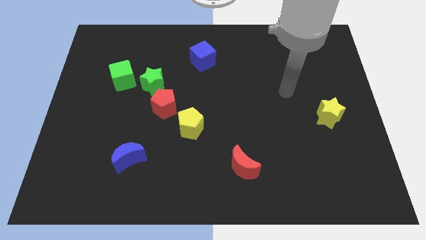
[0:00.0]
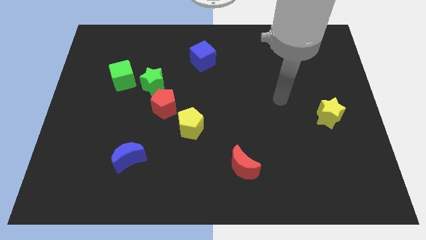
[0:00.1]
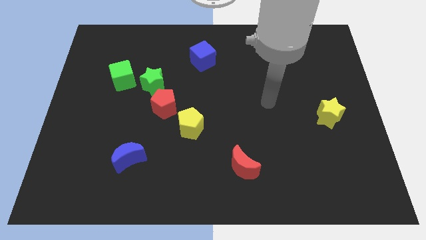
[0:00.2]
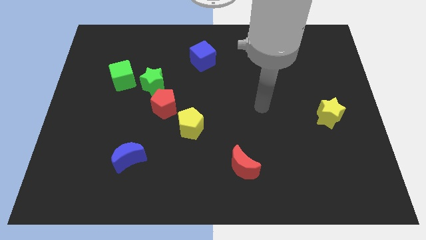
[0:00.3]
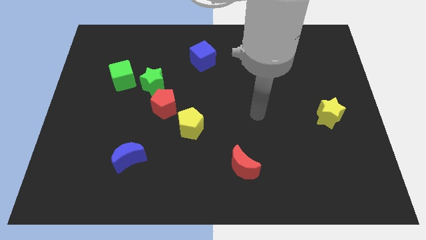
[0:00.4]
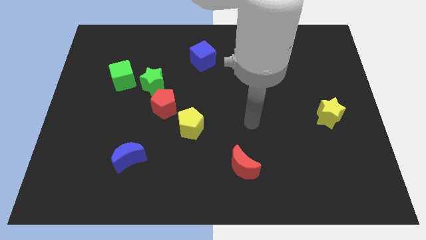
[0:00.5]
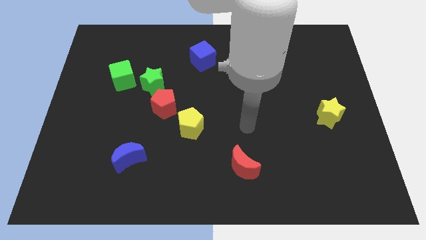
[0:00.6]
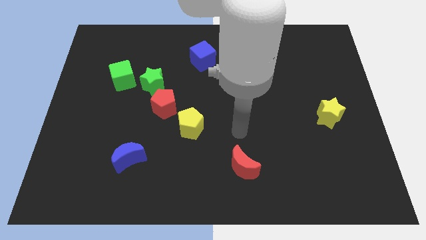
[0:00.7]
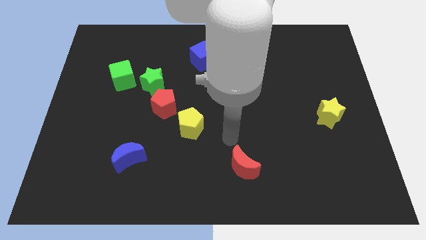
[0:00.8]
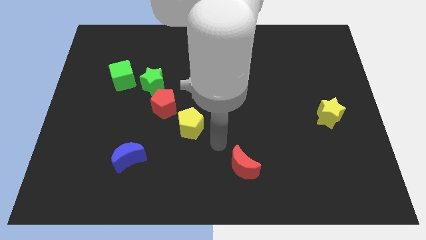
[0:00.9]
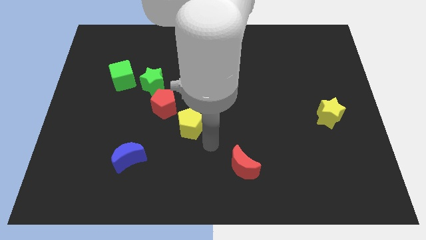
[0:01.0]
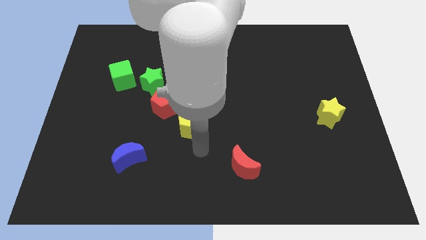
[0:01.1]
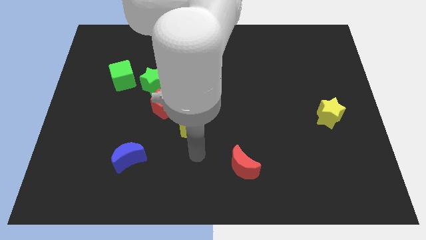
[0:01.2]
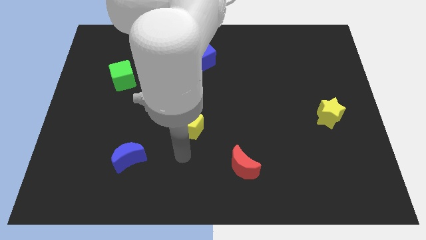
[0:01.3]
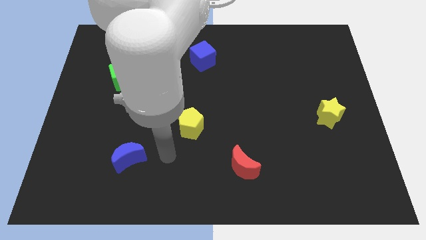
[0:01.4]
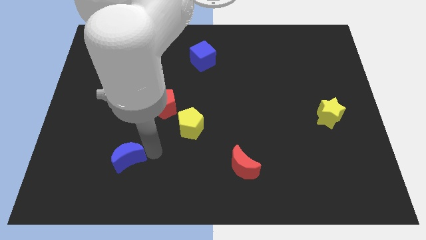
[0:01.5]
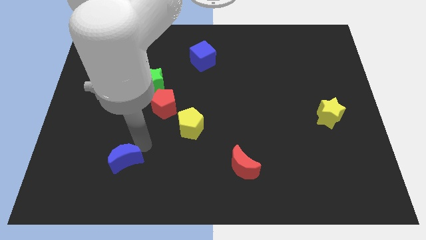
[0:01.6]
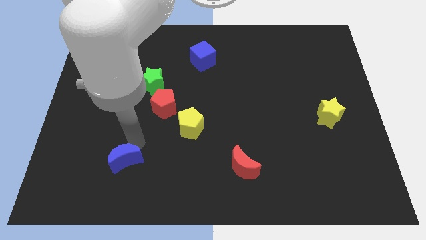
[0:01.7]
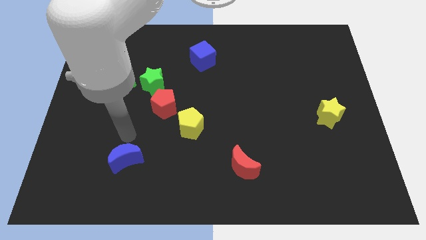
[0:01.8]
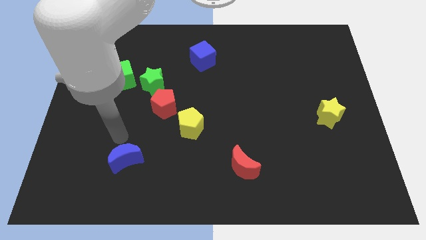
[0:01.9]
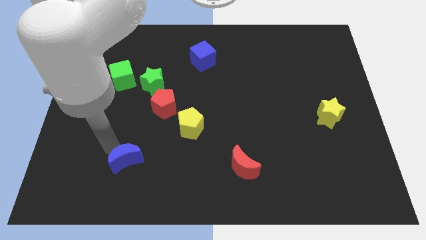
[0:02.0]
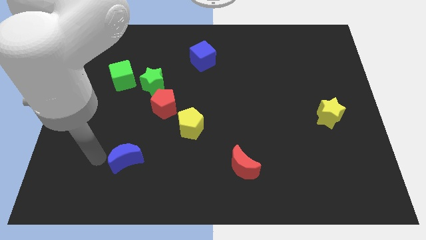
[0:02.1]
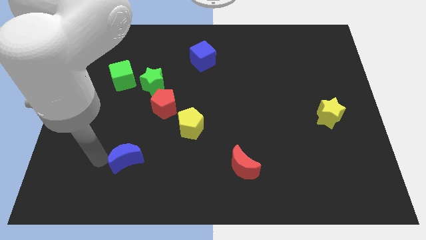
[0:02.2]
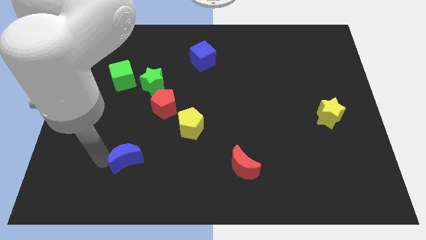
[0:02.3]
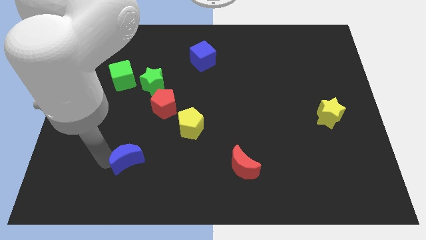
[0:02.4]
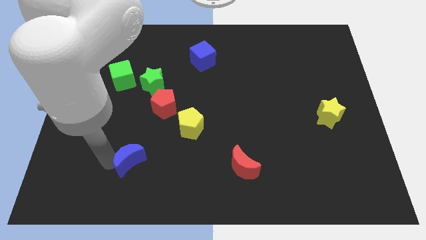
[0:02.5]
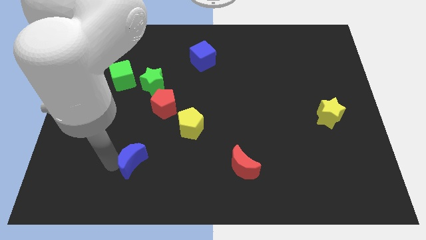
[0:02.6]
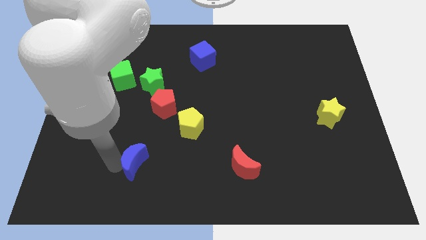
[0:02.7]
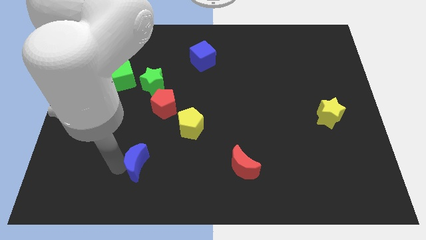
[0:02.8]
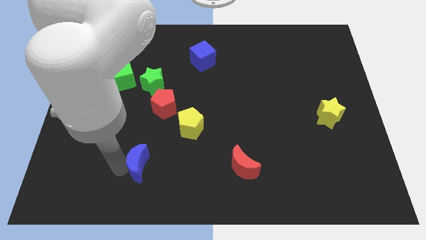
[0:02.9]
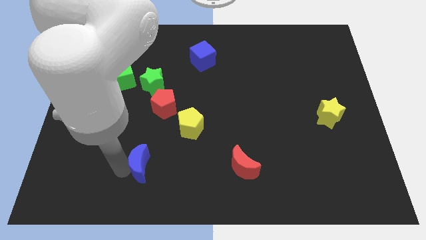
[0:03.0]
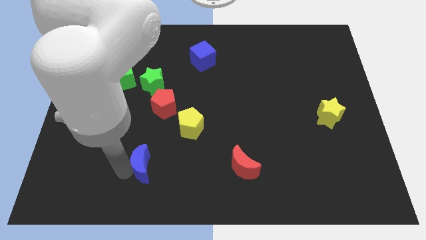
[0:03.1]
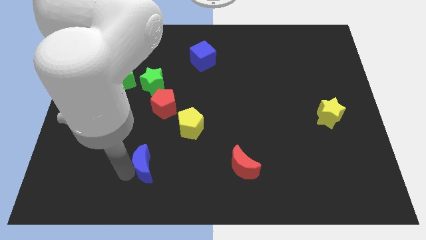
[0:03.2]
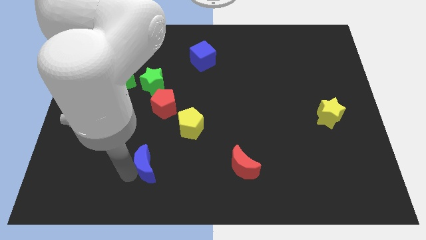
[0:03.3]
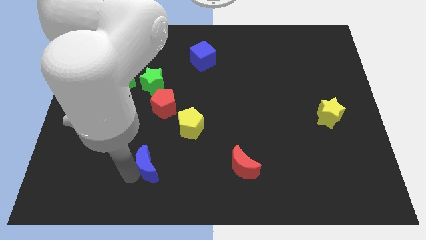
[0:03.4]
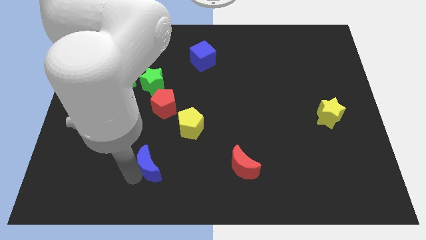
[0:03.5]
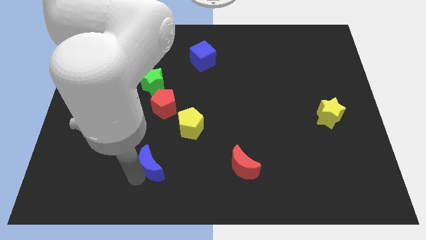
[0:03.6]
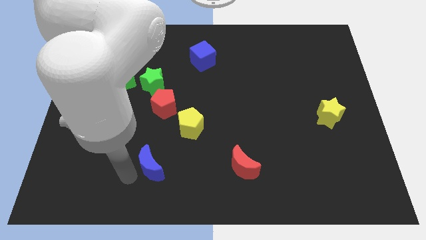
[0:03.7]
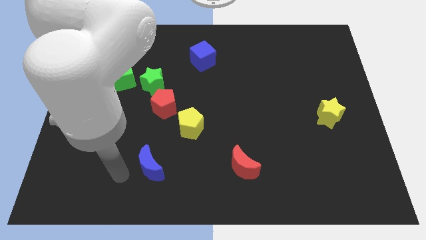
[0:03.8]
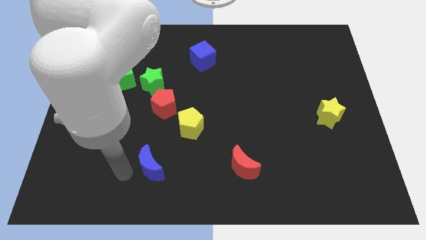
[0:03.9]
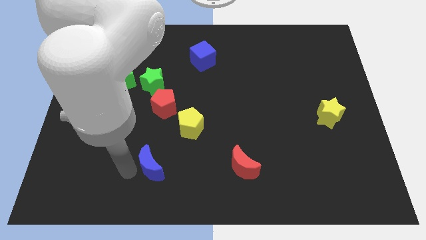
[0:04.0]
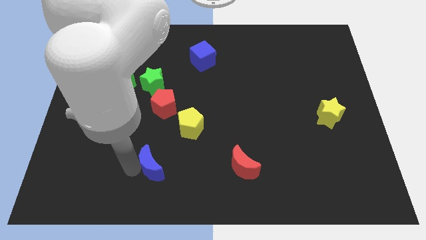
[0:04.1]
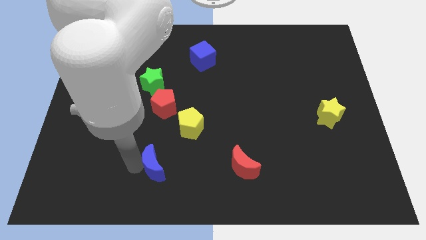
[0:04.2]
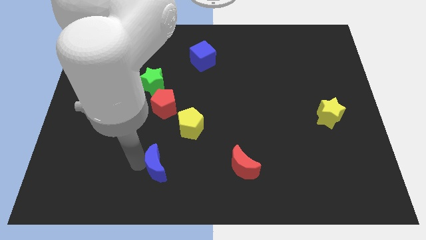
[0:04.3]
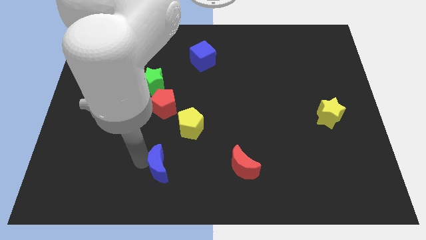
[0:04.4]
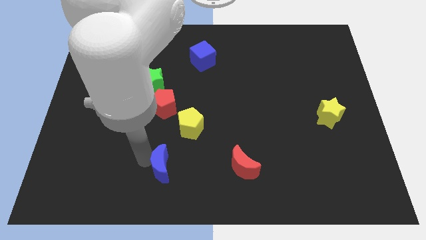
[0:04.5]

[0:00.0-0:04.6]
move the blue moon to the right somewhat

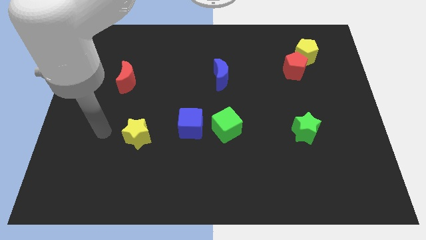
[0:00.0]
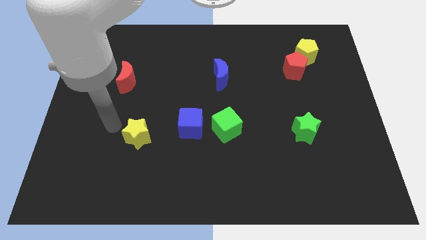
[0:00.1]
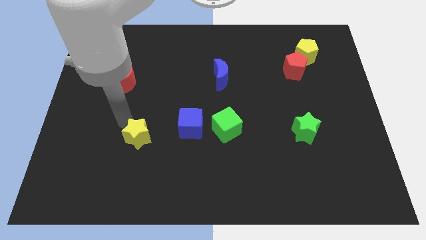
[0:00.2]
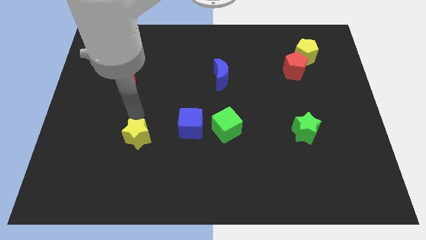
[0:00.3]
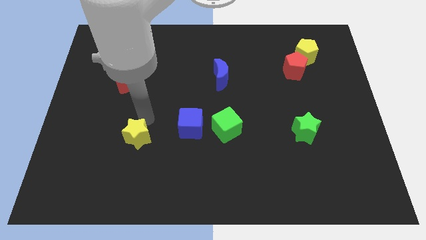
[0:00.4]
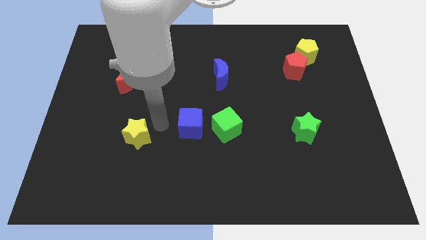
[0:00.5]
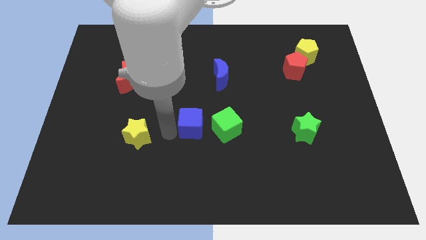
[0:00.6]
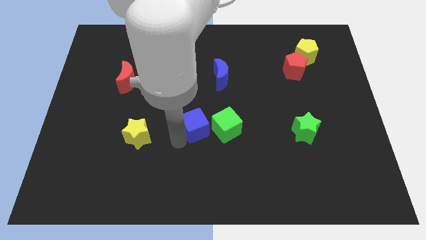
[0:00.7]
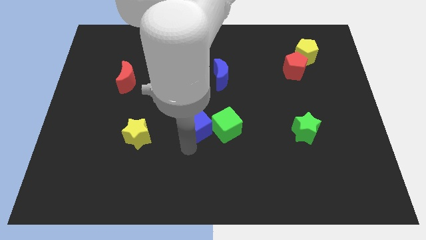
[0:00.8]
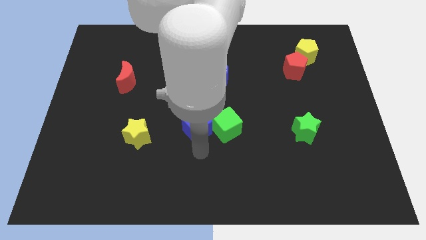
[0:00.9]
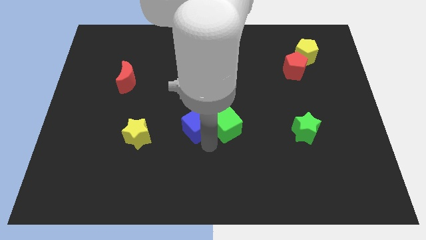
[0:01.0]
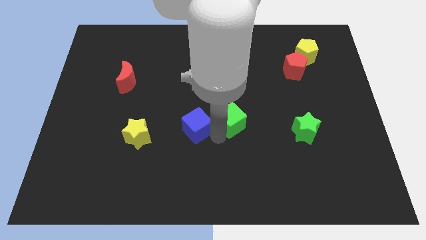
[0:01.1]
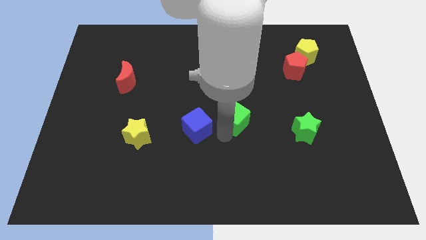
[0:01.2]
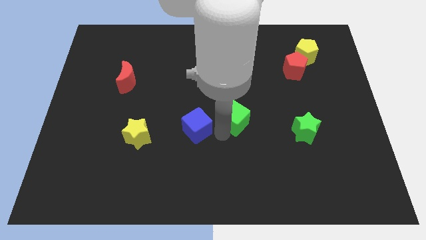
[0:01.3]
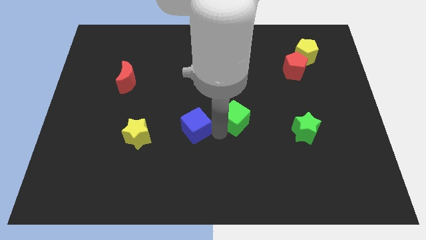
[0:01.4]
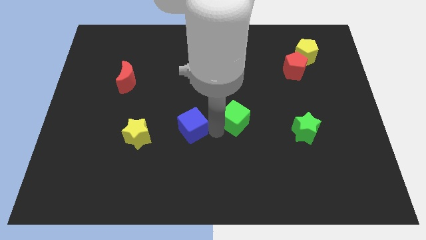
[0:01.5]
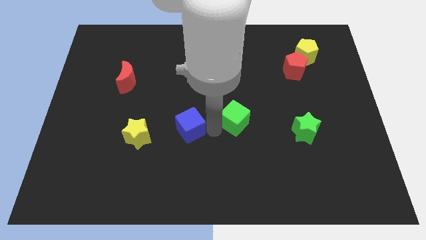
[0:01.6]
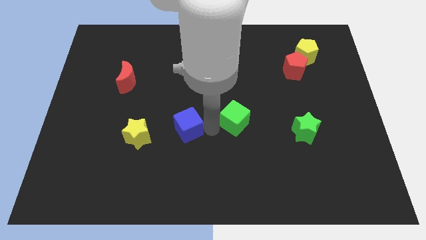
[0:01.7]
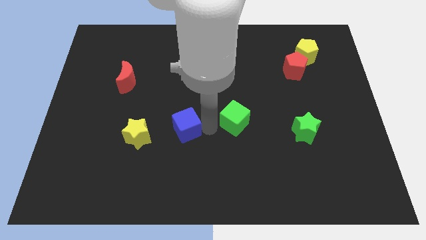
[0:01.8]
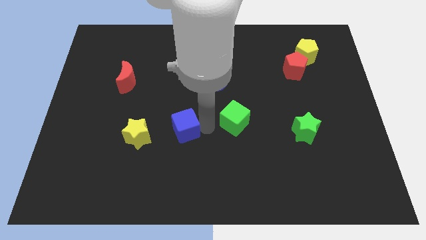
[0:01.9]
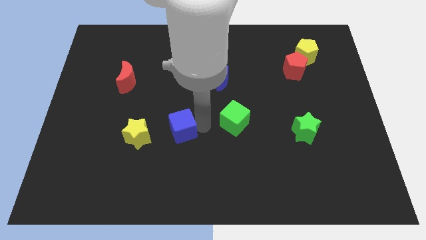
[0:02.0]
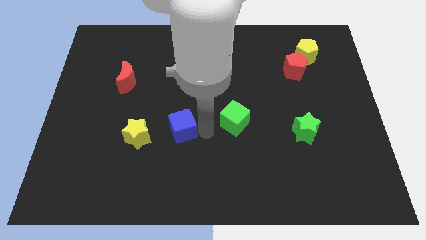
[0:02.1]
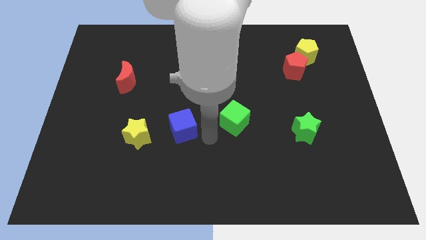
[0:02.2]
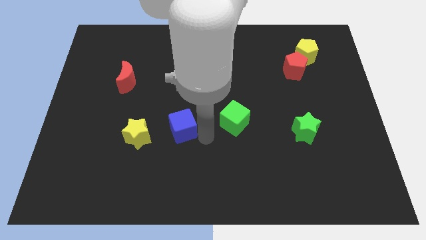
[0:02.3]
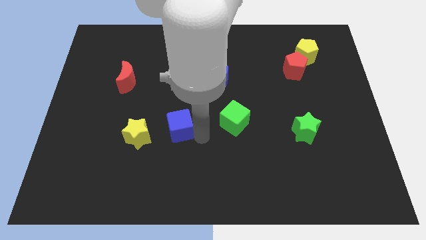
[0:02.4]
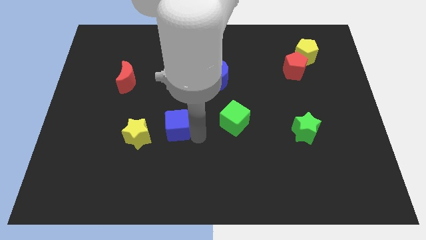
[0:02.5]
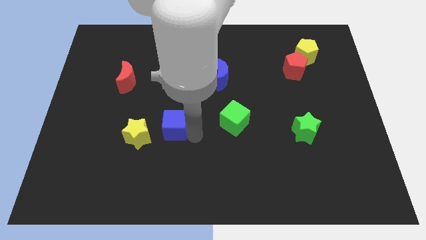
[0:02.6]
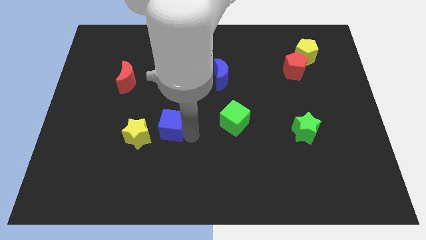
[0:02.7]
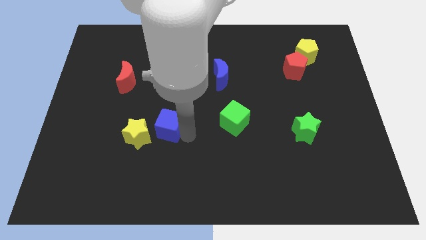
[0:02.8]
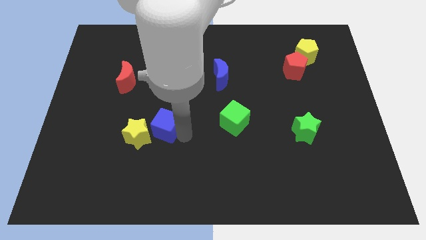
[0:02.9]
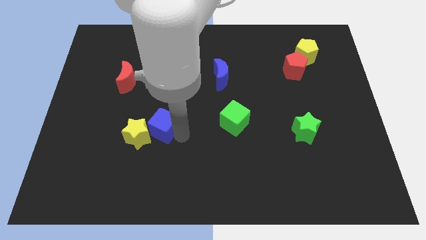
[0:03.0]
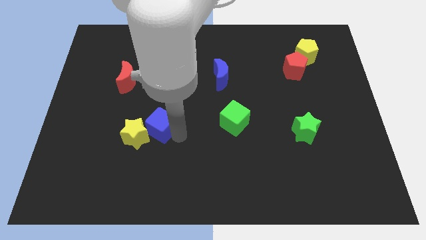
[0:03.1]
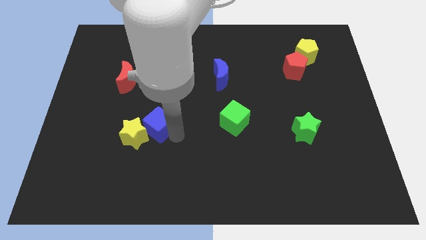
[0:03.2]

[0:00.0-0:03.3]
slightly push the blue cube to the left
